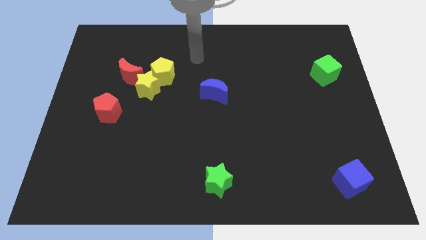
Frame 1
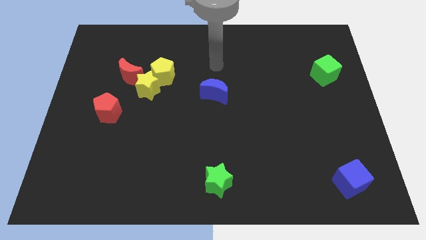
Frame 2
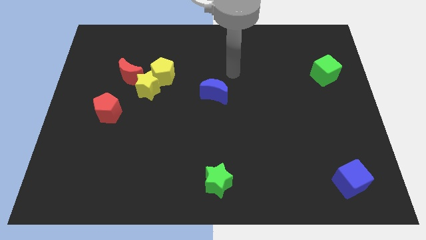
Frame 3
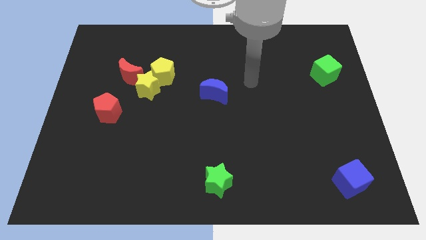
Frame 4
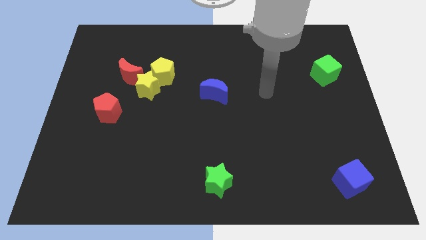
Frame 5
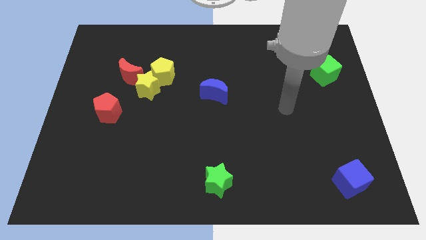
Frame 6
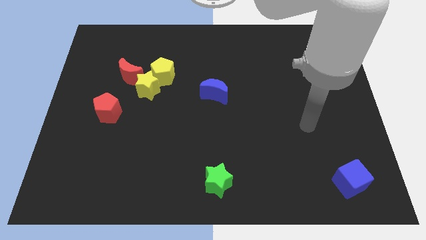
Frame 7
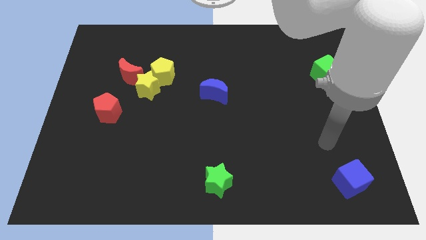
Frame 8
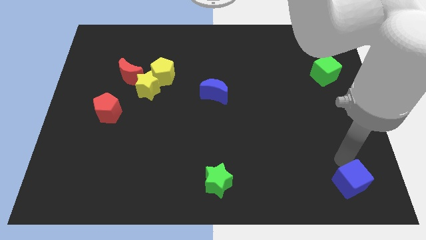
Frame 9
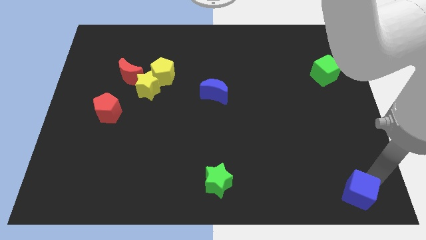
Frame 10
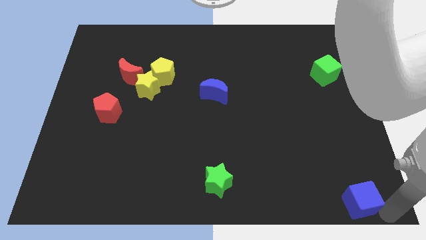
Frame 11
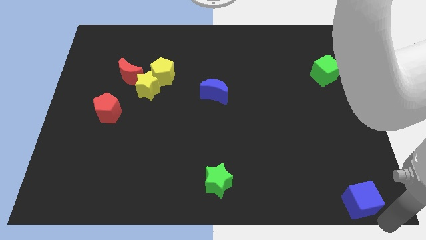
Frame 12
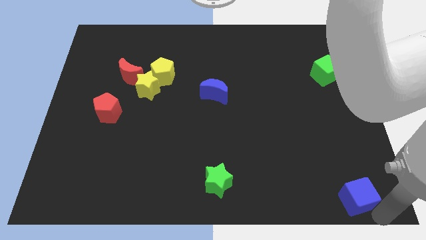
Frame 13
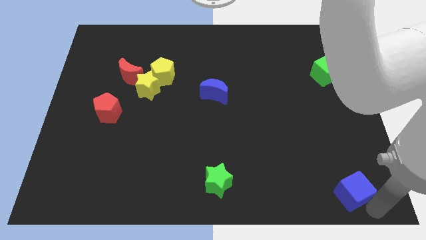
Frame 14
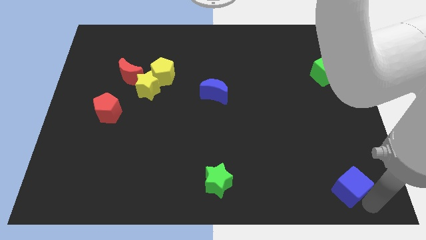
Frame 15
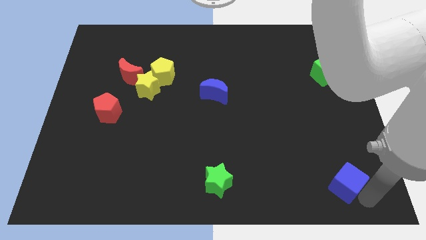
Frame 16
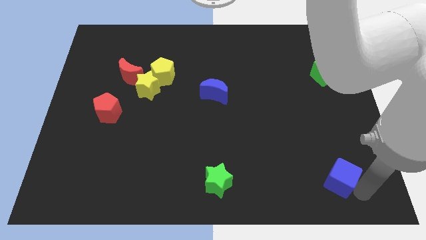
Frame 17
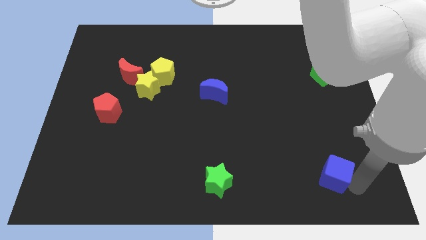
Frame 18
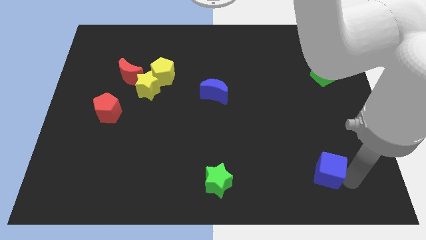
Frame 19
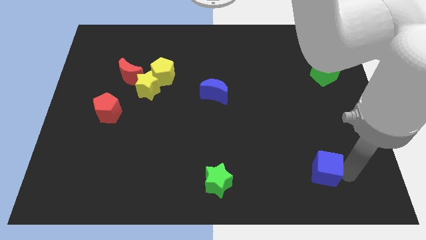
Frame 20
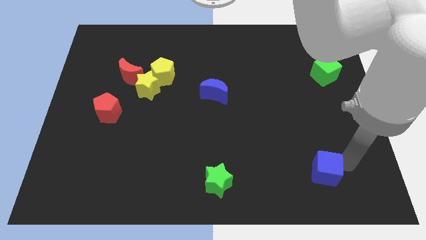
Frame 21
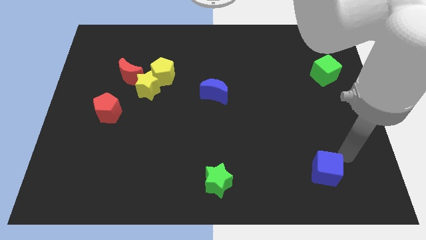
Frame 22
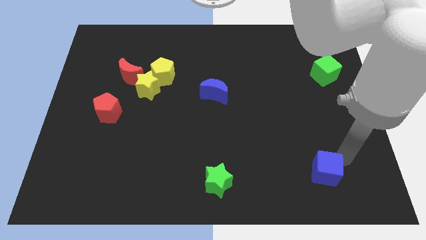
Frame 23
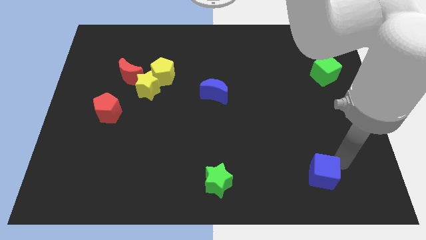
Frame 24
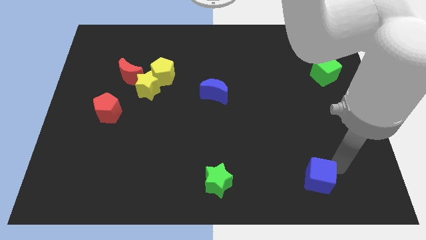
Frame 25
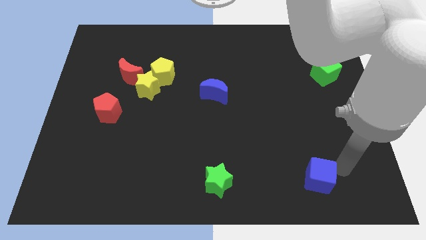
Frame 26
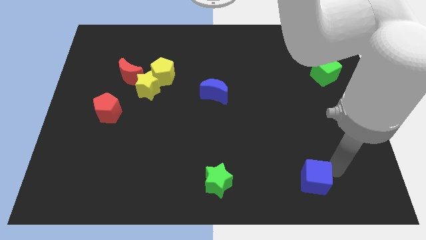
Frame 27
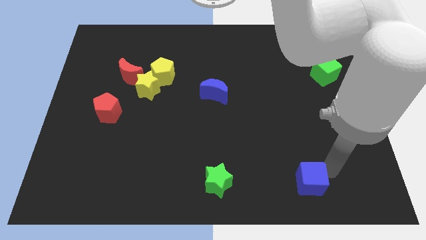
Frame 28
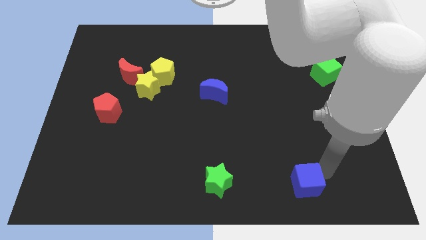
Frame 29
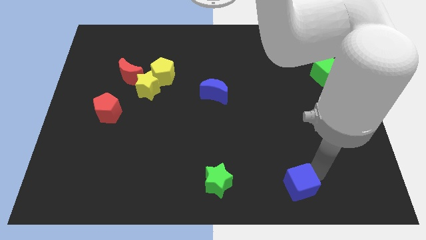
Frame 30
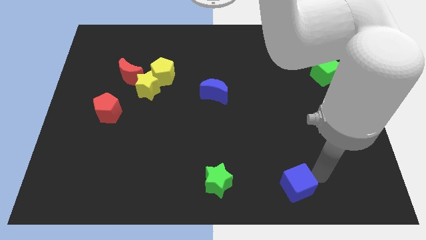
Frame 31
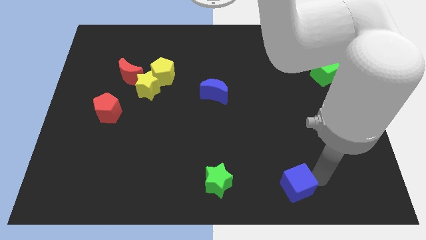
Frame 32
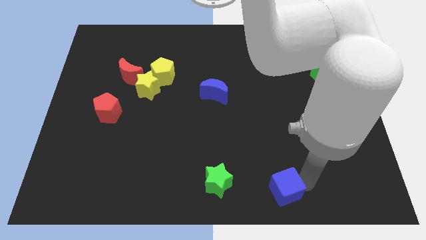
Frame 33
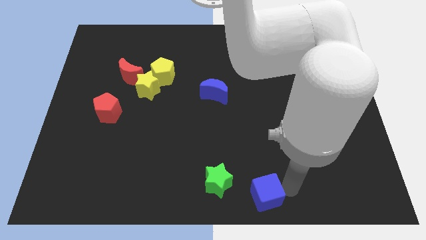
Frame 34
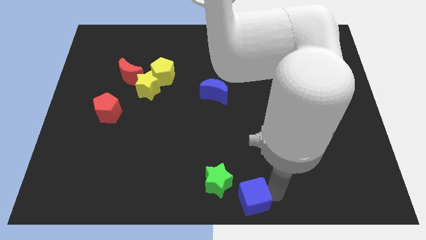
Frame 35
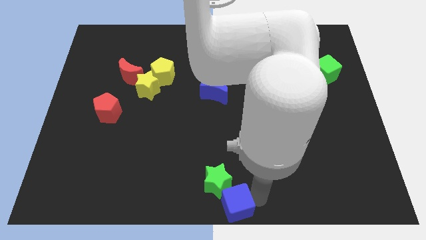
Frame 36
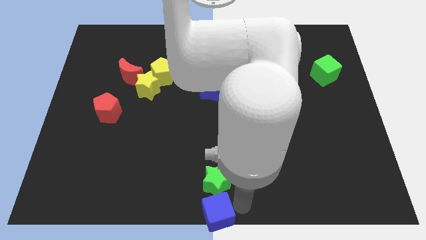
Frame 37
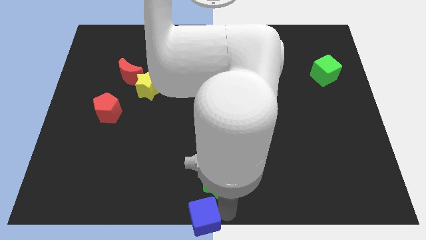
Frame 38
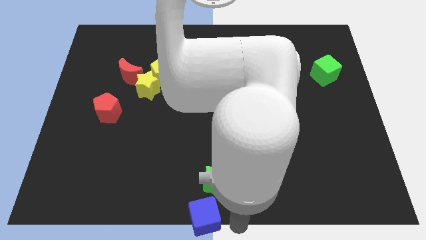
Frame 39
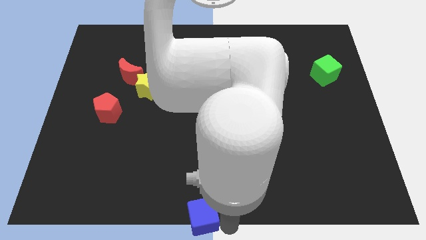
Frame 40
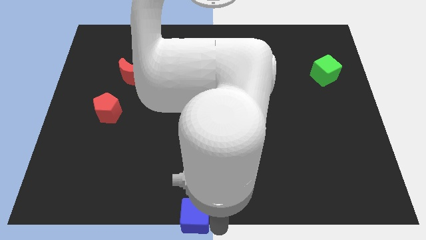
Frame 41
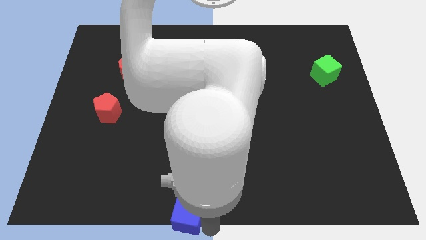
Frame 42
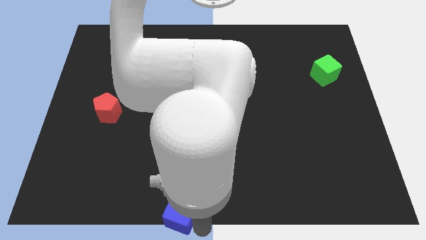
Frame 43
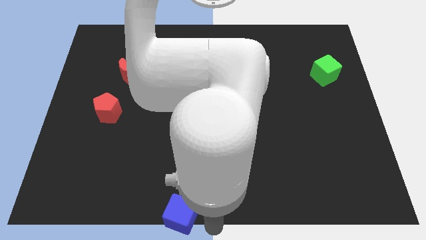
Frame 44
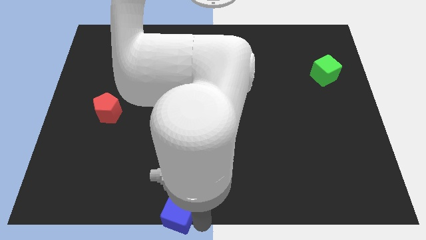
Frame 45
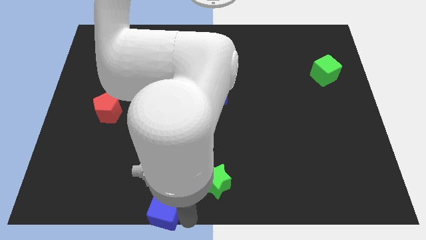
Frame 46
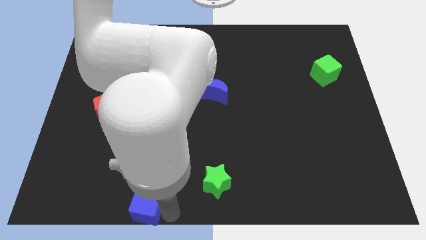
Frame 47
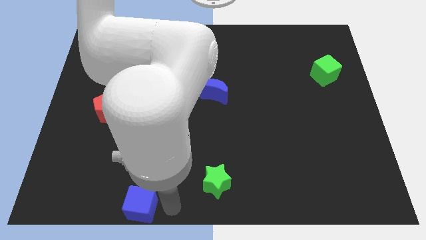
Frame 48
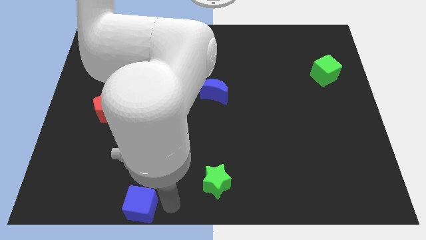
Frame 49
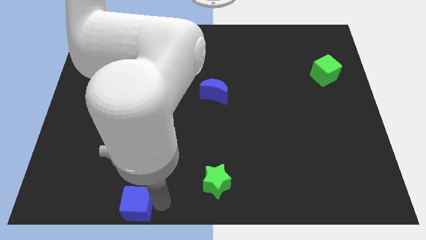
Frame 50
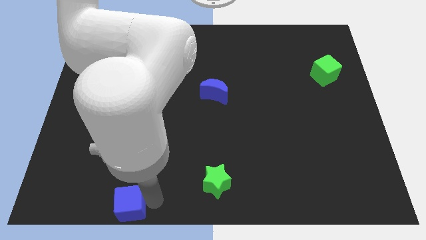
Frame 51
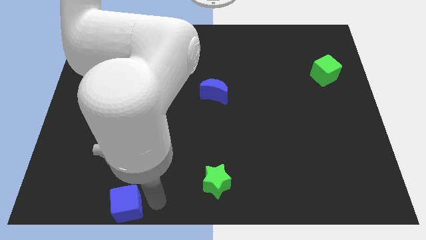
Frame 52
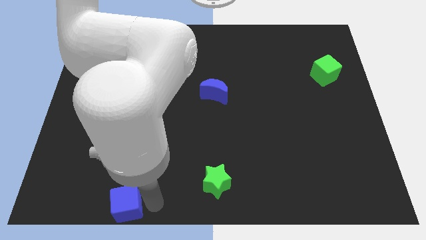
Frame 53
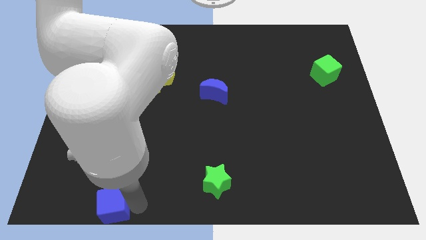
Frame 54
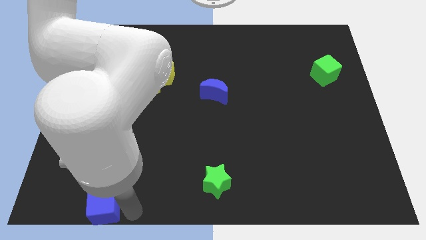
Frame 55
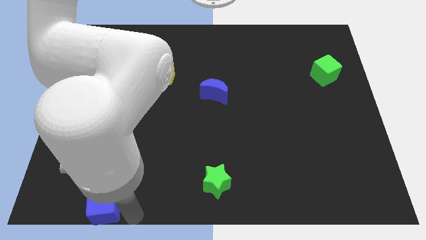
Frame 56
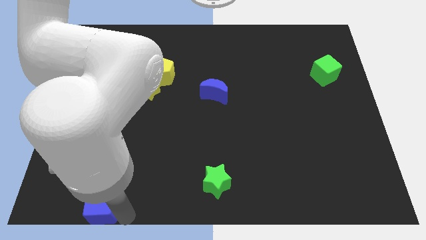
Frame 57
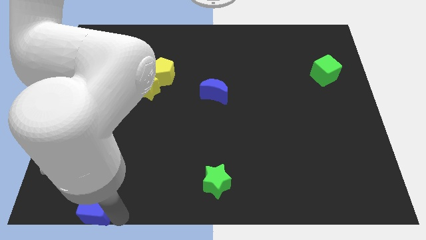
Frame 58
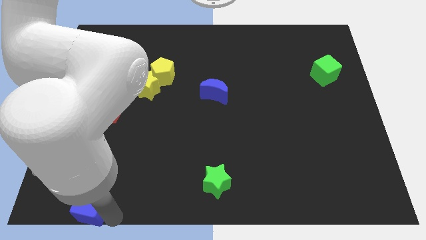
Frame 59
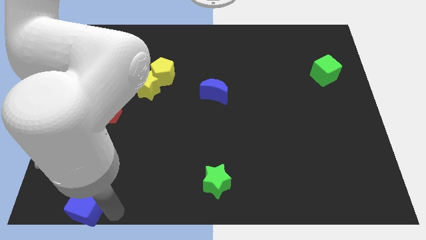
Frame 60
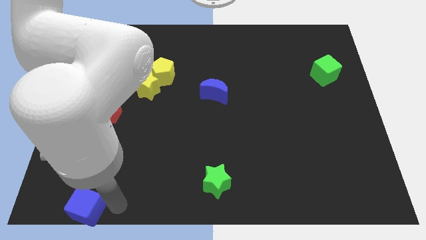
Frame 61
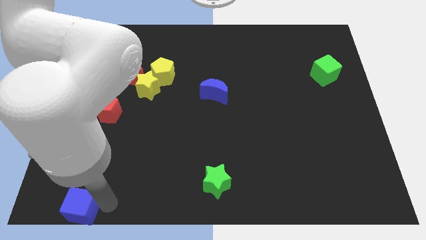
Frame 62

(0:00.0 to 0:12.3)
slide the blue cube to the bottom left corner

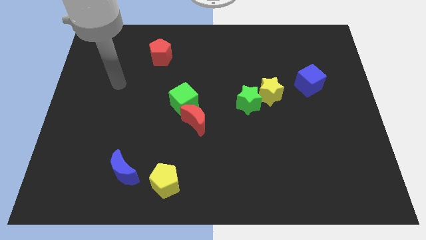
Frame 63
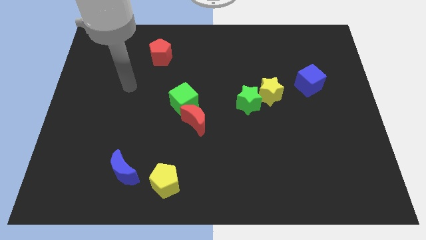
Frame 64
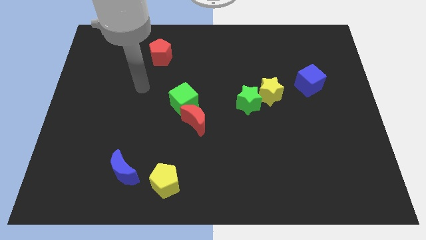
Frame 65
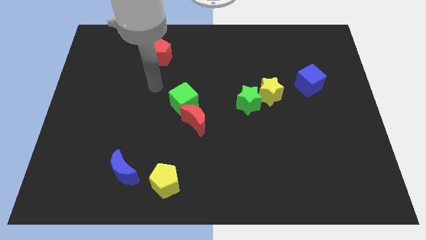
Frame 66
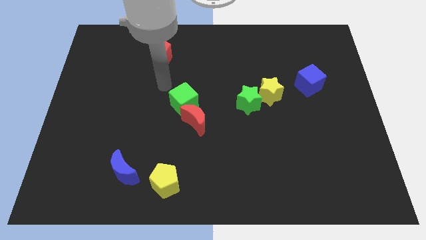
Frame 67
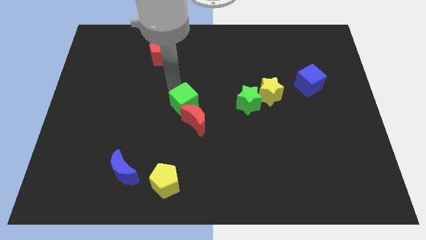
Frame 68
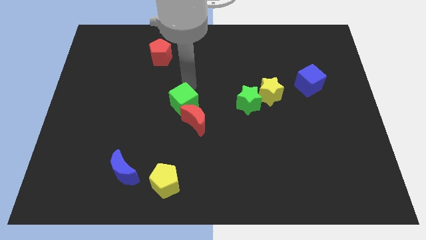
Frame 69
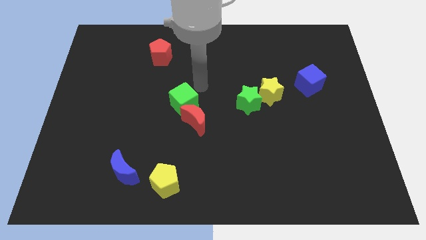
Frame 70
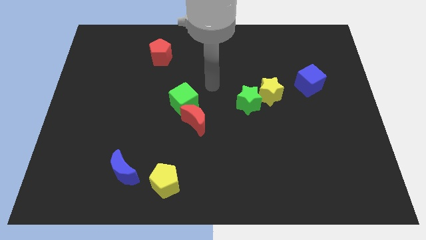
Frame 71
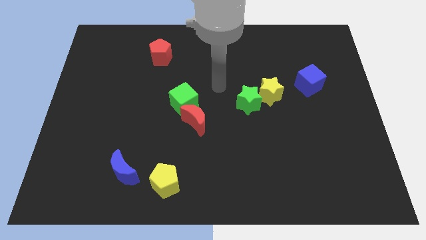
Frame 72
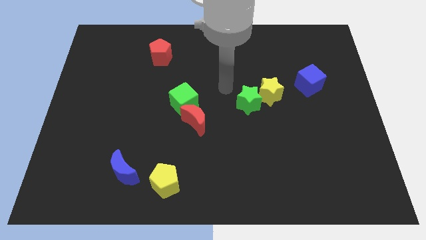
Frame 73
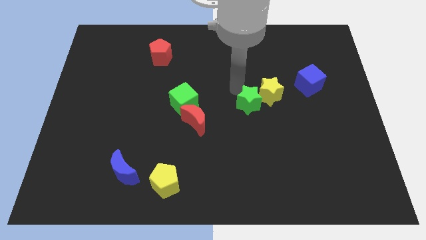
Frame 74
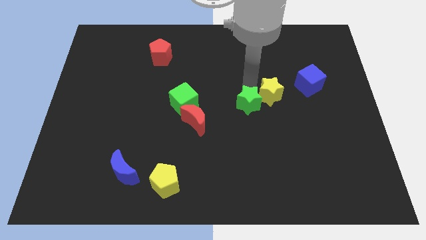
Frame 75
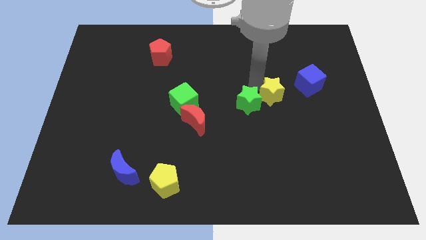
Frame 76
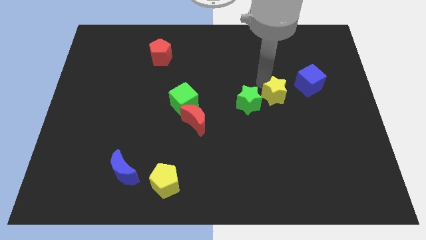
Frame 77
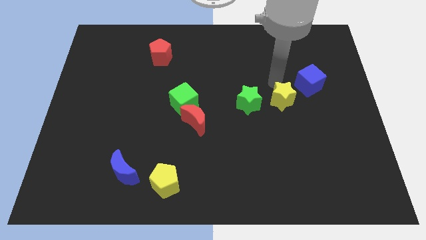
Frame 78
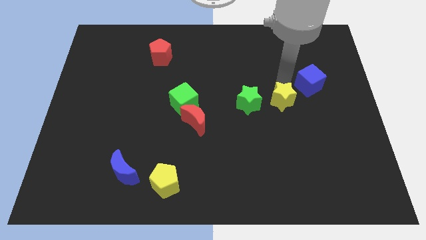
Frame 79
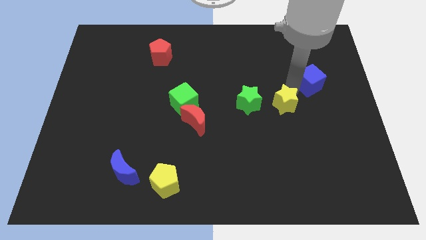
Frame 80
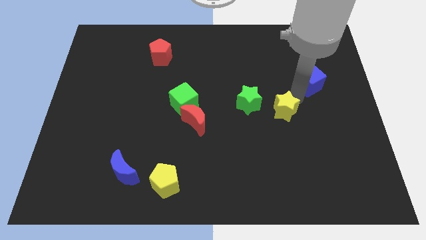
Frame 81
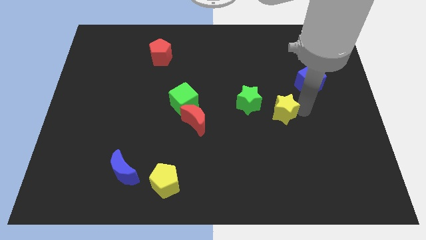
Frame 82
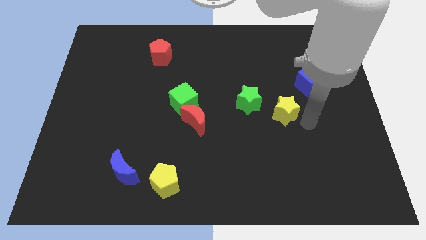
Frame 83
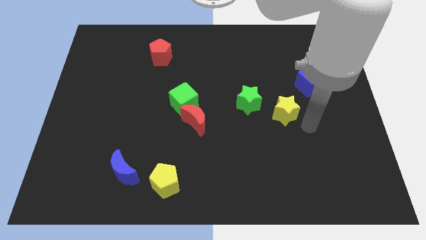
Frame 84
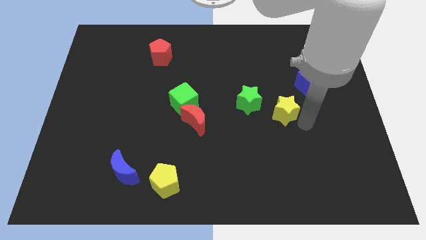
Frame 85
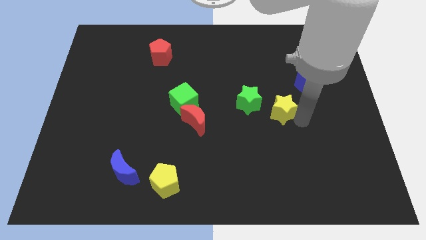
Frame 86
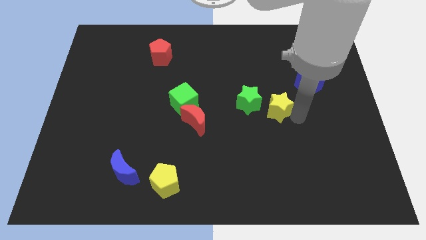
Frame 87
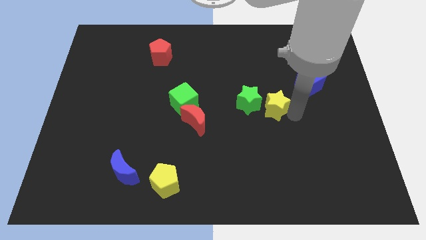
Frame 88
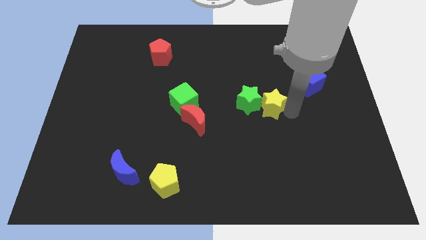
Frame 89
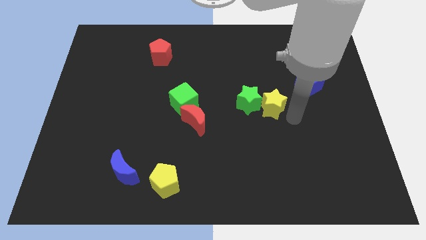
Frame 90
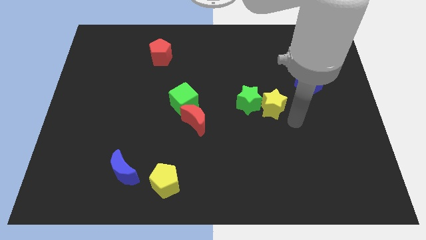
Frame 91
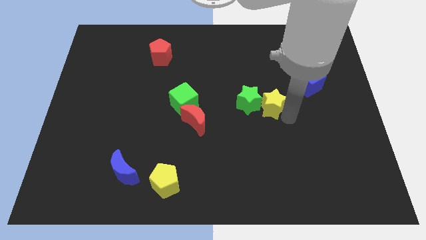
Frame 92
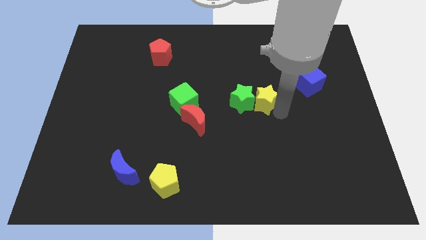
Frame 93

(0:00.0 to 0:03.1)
move the yellow star to the middle of the board
